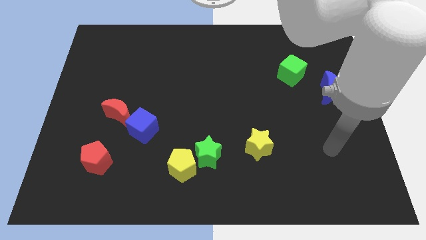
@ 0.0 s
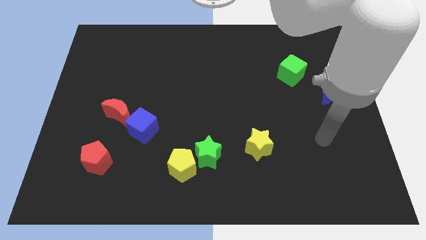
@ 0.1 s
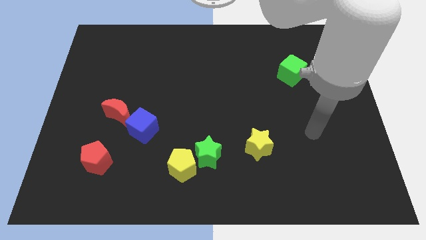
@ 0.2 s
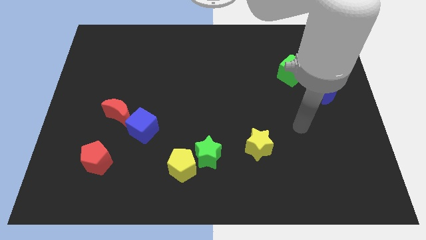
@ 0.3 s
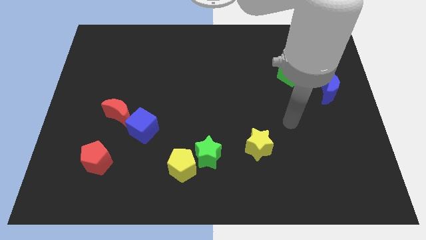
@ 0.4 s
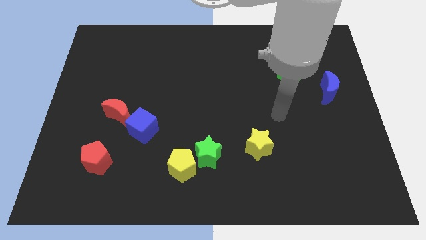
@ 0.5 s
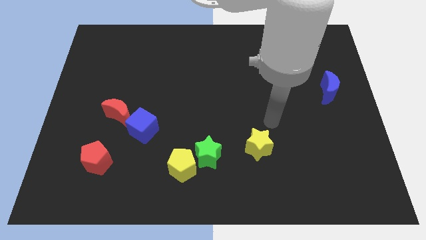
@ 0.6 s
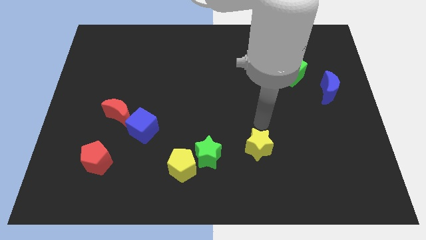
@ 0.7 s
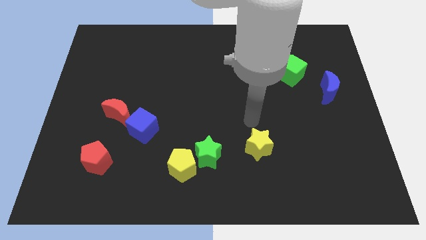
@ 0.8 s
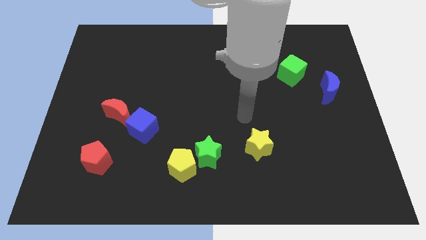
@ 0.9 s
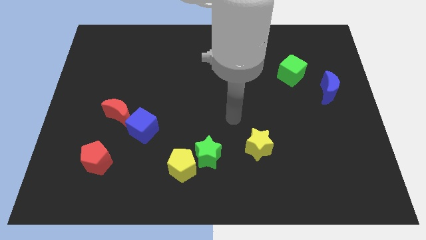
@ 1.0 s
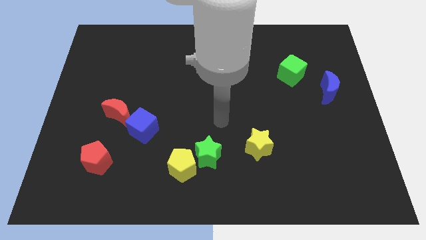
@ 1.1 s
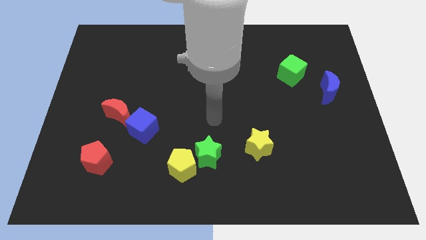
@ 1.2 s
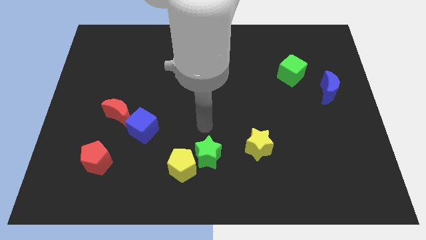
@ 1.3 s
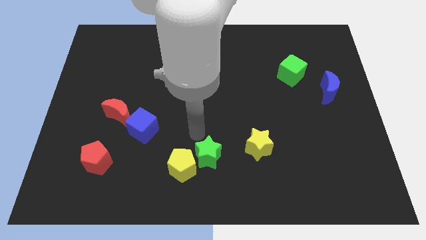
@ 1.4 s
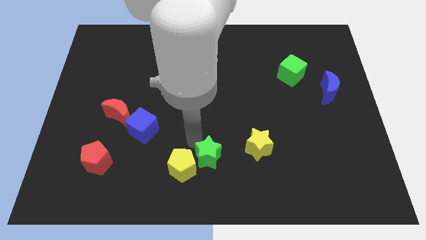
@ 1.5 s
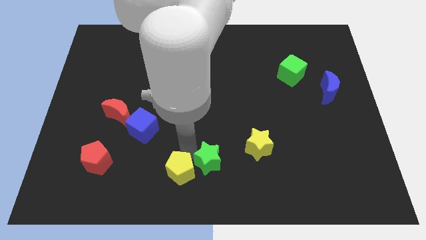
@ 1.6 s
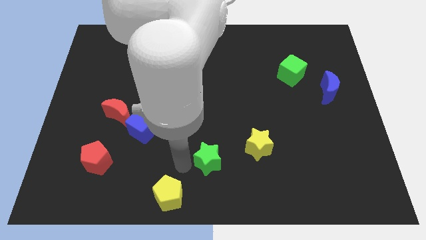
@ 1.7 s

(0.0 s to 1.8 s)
pull the green star apart from the yellow pentagon

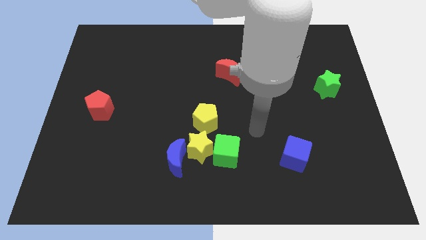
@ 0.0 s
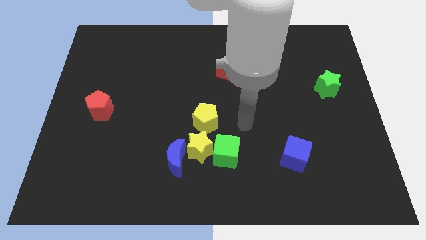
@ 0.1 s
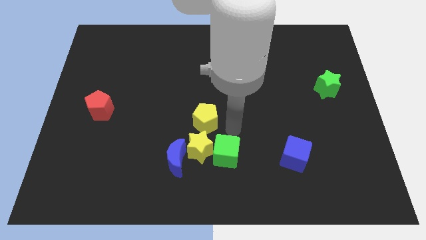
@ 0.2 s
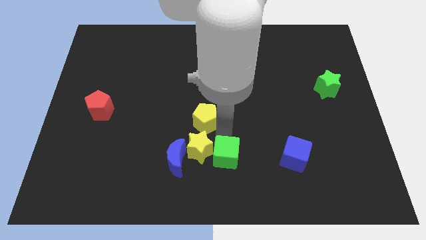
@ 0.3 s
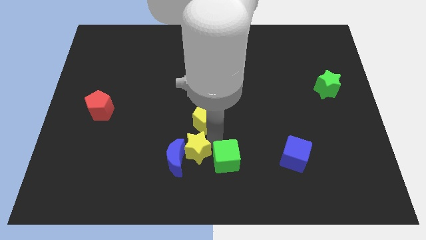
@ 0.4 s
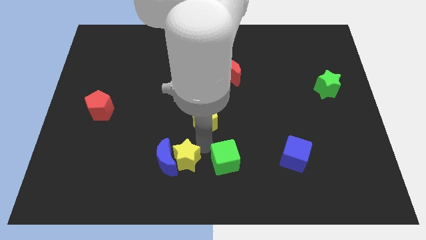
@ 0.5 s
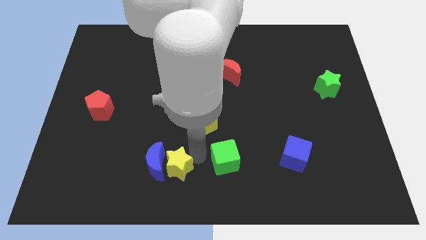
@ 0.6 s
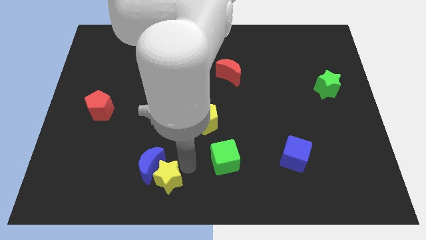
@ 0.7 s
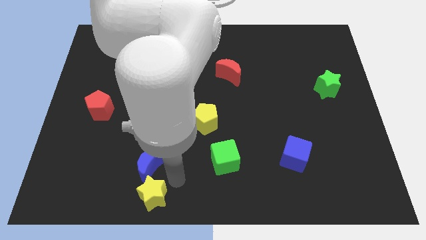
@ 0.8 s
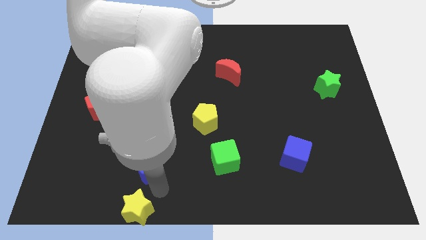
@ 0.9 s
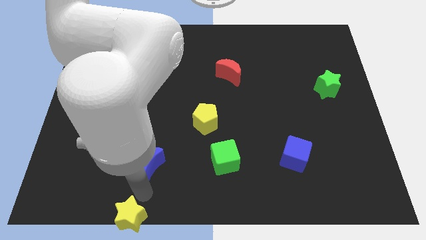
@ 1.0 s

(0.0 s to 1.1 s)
separate the blue moon from the yellow star

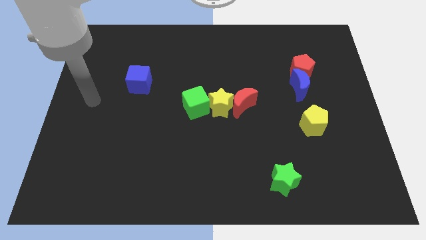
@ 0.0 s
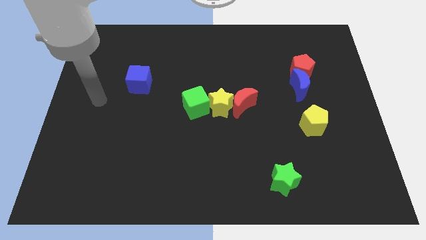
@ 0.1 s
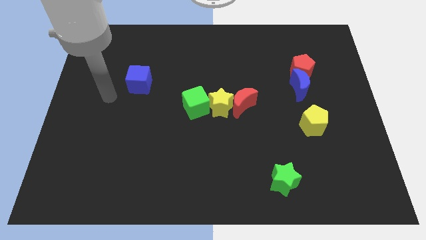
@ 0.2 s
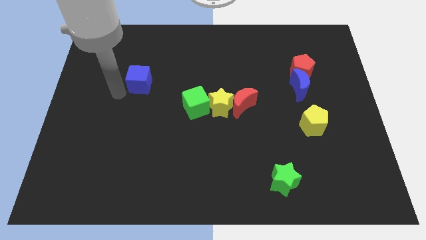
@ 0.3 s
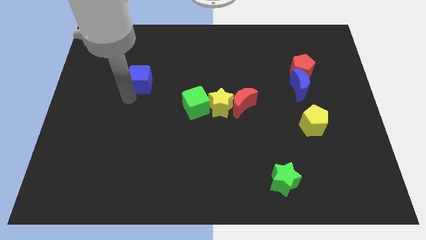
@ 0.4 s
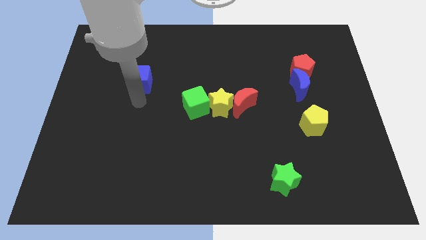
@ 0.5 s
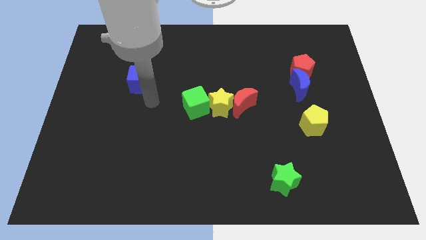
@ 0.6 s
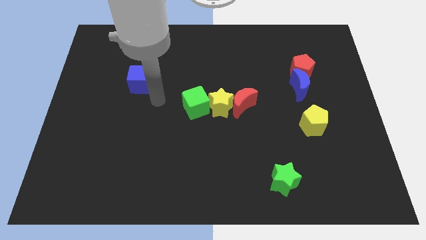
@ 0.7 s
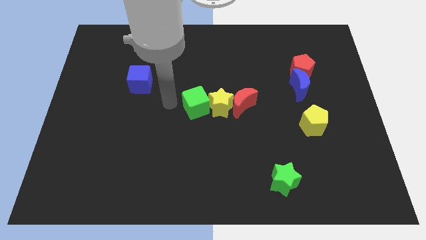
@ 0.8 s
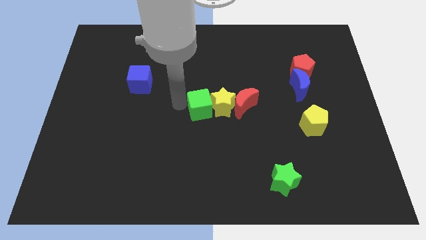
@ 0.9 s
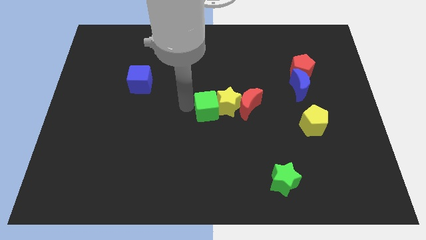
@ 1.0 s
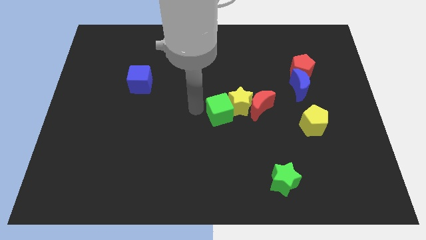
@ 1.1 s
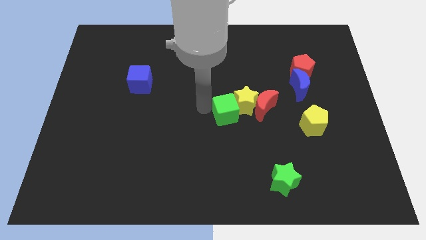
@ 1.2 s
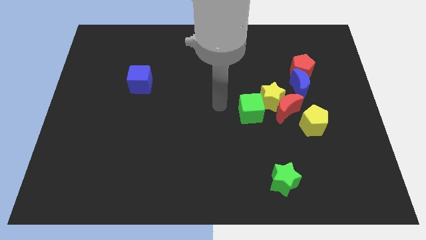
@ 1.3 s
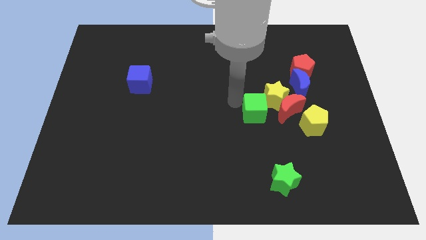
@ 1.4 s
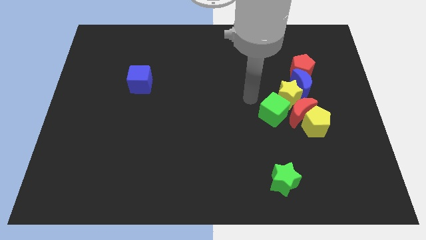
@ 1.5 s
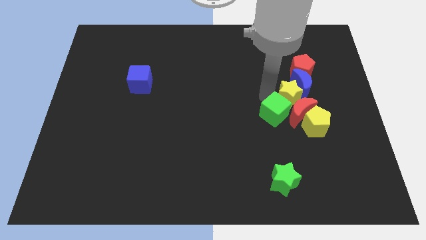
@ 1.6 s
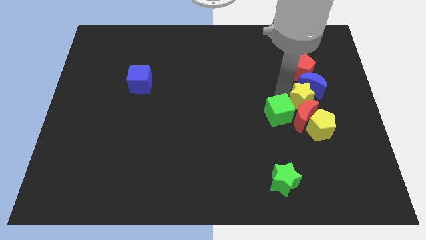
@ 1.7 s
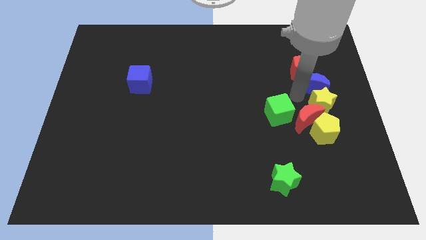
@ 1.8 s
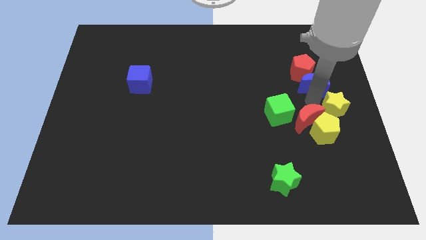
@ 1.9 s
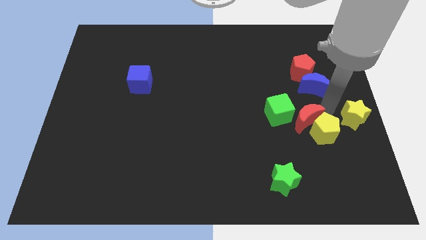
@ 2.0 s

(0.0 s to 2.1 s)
separate the red moon from the yellow star

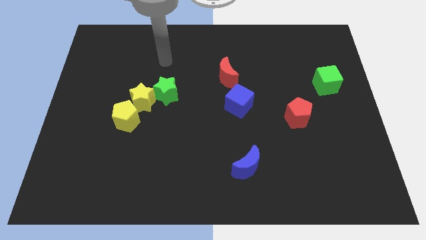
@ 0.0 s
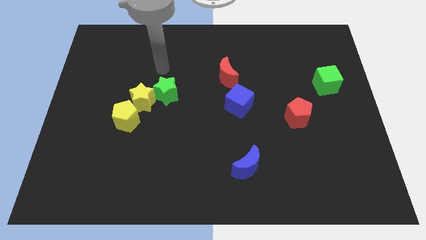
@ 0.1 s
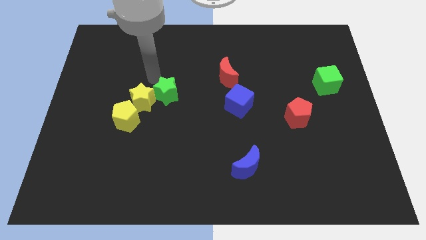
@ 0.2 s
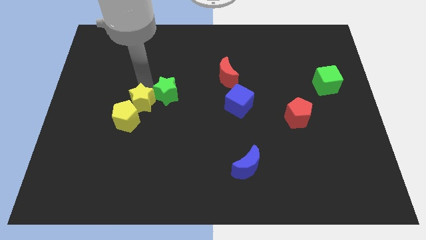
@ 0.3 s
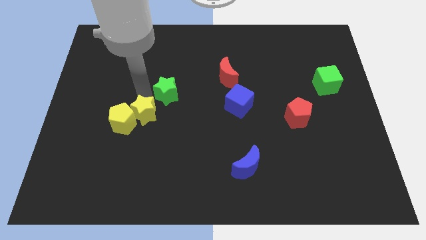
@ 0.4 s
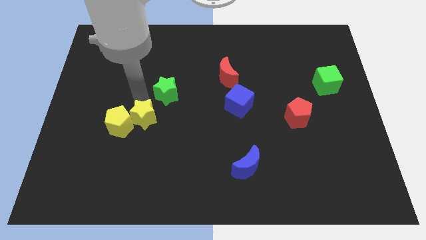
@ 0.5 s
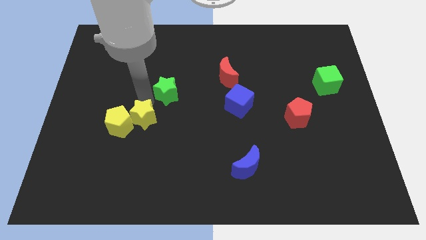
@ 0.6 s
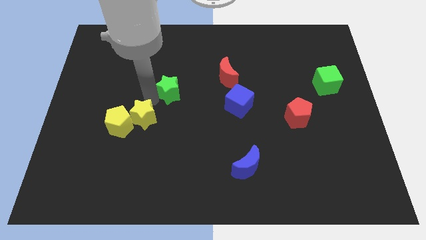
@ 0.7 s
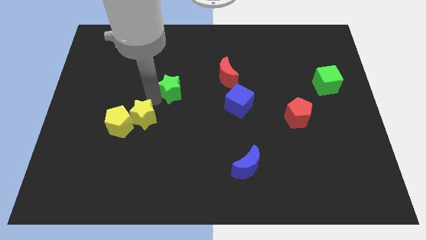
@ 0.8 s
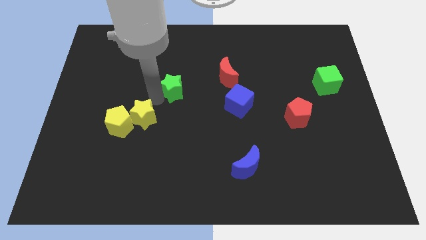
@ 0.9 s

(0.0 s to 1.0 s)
pull the green star apart from the yellow star

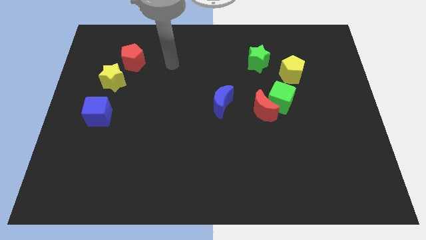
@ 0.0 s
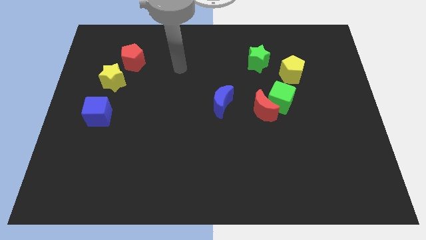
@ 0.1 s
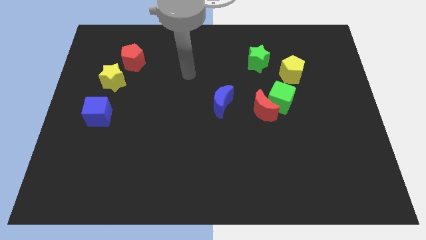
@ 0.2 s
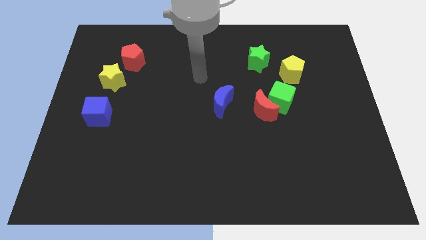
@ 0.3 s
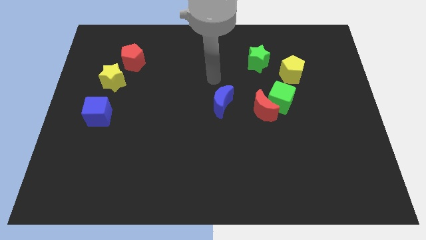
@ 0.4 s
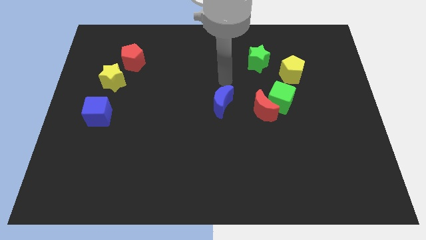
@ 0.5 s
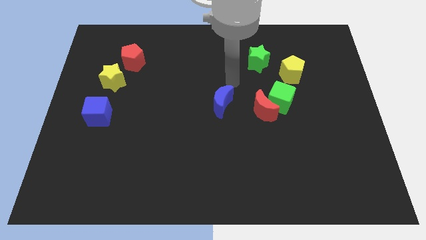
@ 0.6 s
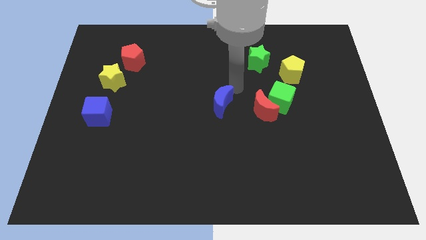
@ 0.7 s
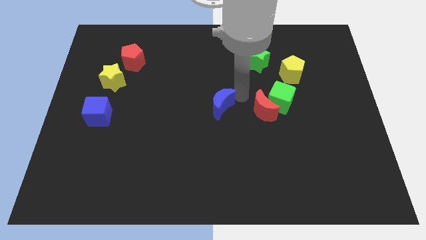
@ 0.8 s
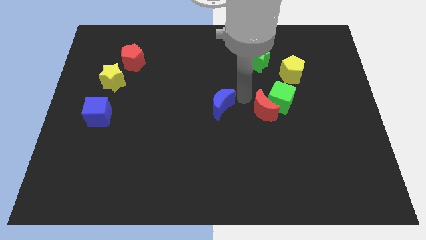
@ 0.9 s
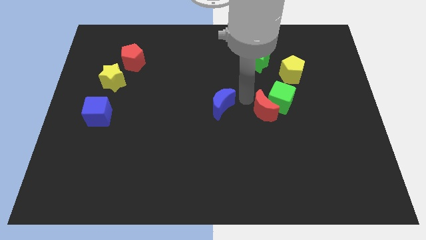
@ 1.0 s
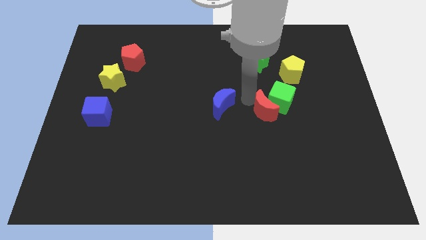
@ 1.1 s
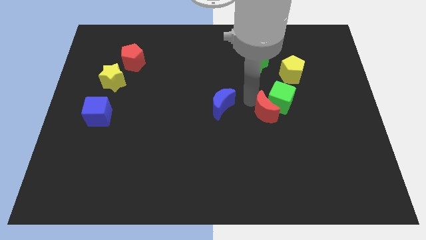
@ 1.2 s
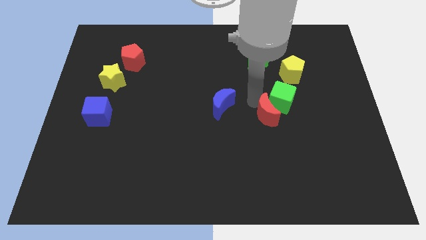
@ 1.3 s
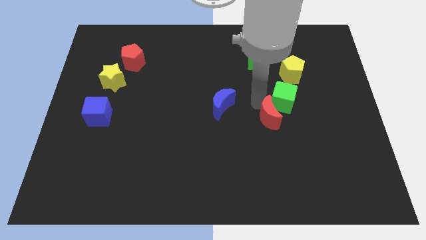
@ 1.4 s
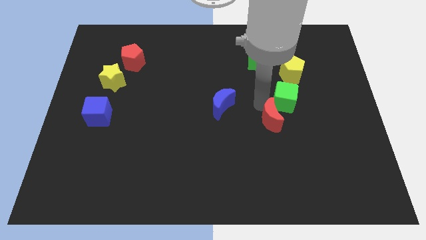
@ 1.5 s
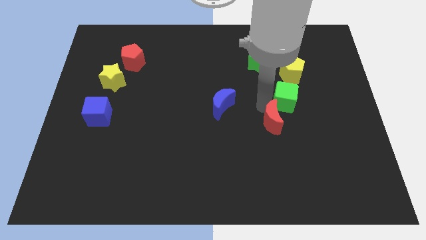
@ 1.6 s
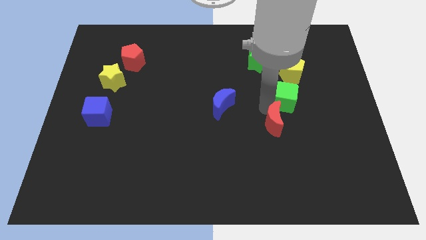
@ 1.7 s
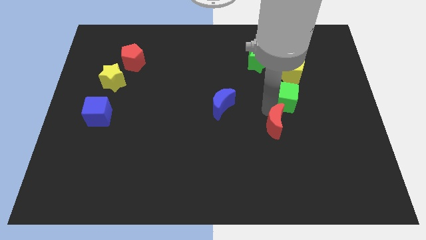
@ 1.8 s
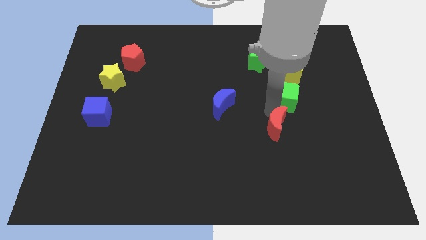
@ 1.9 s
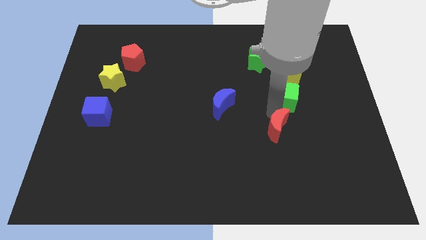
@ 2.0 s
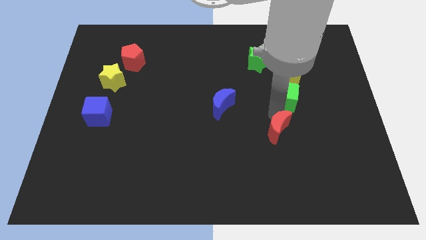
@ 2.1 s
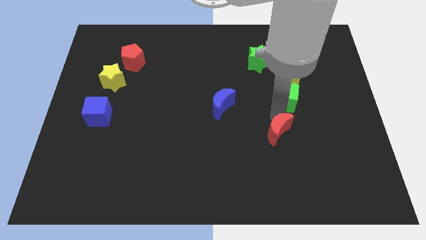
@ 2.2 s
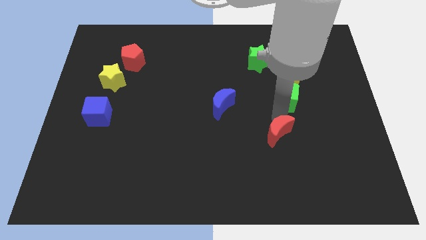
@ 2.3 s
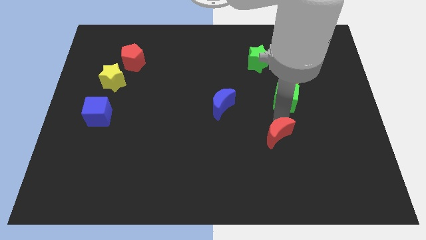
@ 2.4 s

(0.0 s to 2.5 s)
move the red moon away from the green cube and blue moon

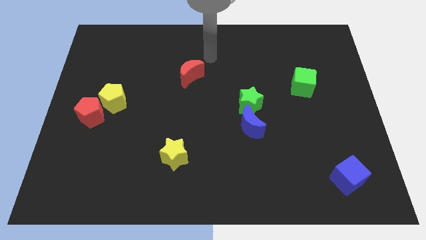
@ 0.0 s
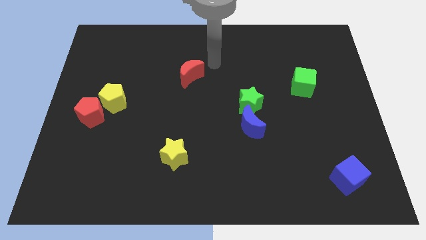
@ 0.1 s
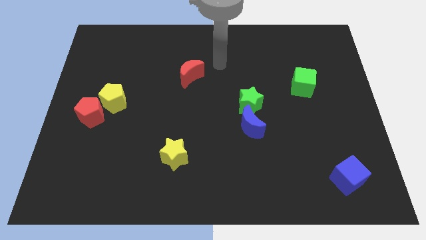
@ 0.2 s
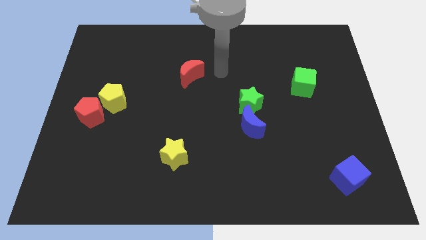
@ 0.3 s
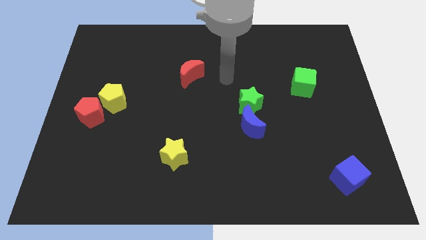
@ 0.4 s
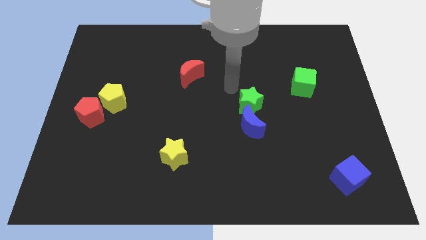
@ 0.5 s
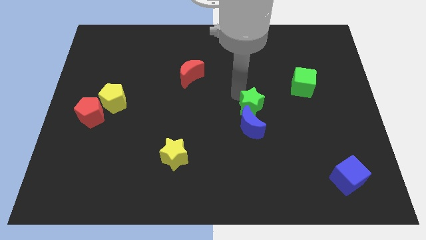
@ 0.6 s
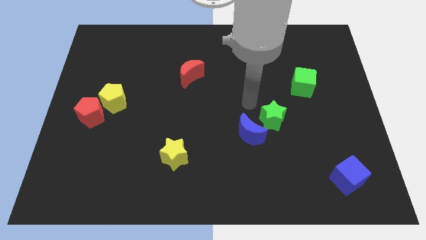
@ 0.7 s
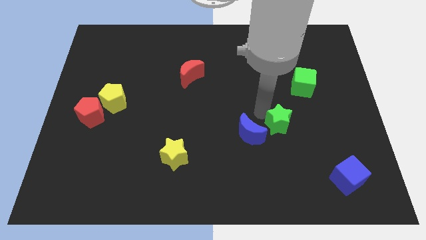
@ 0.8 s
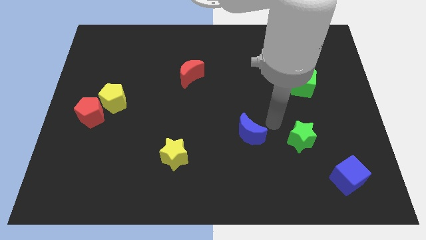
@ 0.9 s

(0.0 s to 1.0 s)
pull the blue moon apart from the green star
